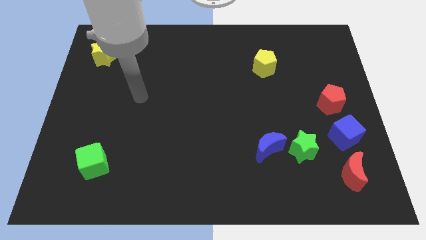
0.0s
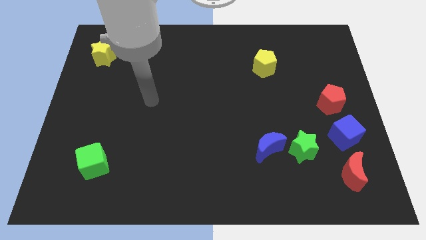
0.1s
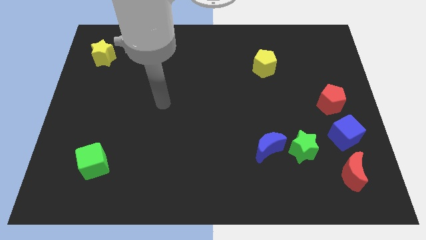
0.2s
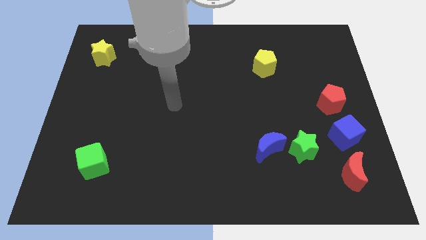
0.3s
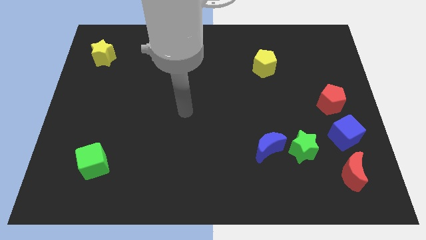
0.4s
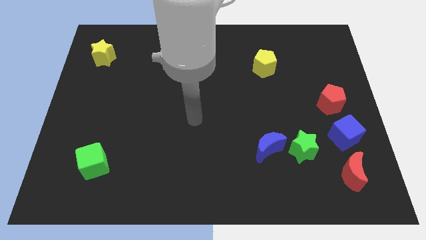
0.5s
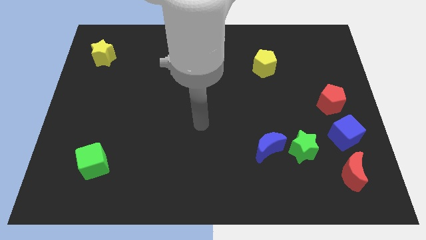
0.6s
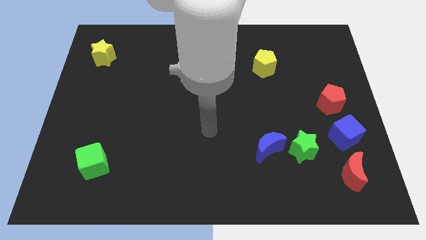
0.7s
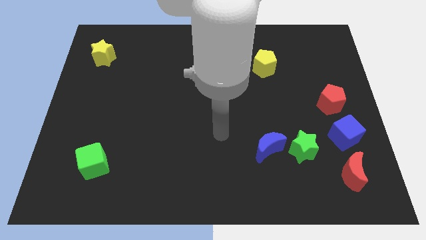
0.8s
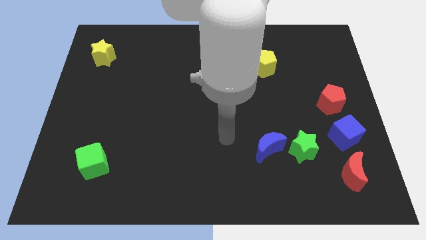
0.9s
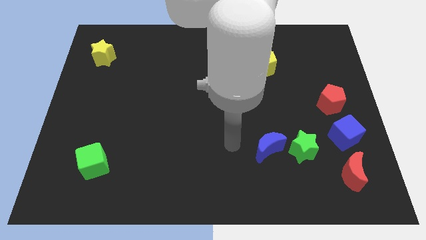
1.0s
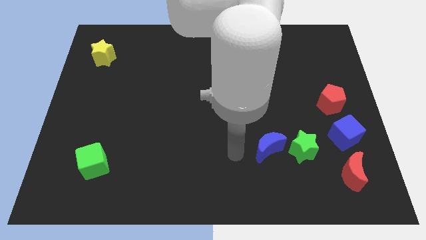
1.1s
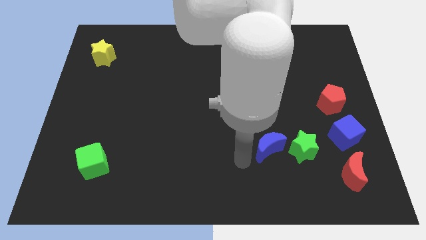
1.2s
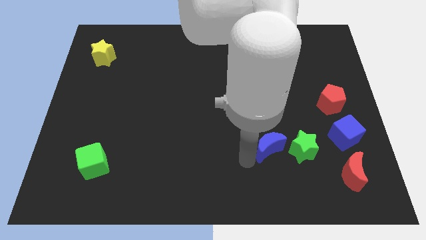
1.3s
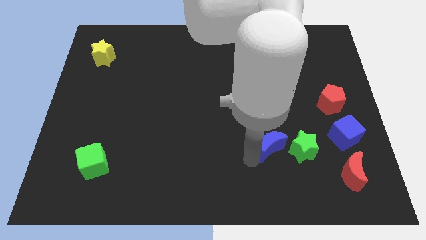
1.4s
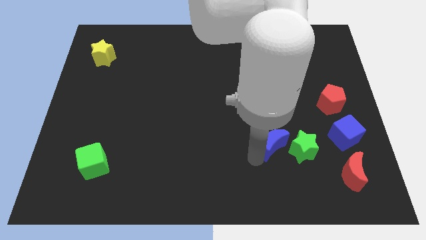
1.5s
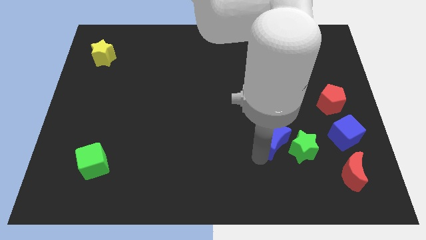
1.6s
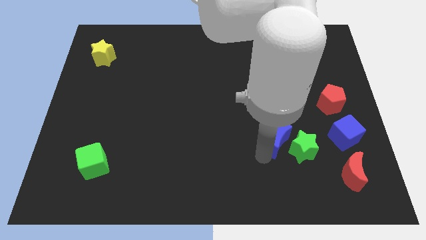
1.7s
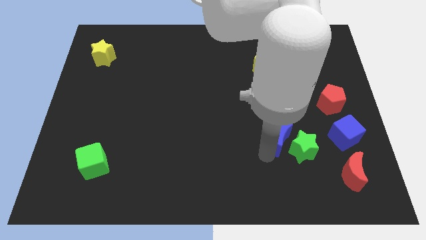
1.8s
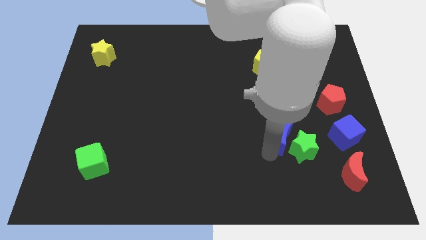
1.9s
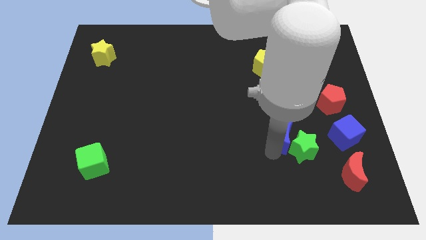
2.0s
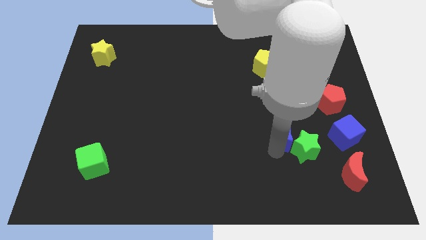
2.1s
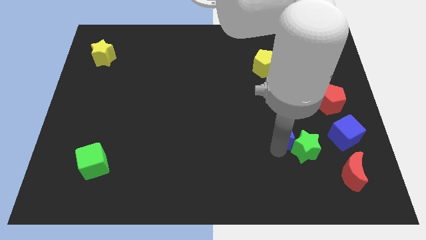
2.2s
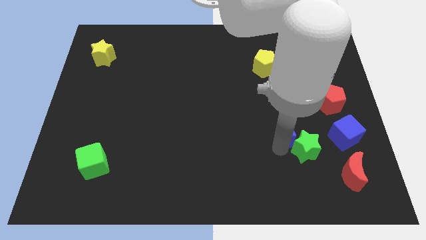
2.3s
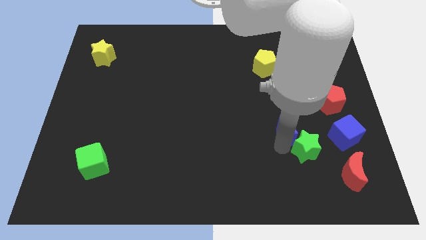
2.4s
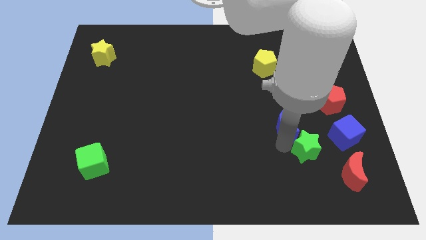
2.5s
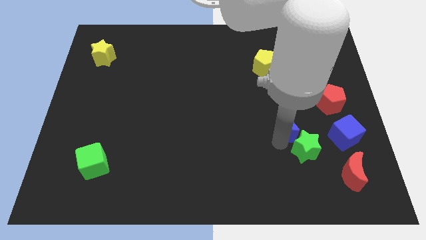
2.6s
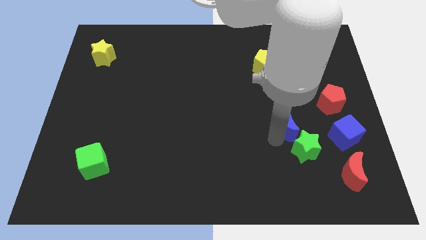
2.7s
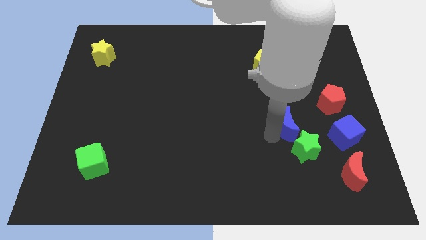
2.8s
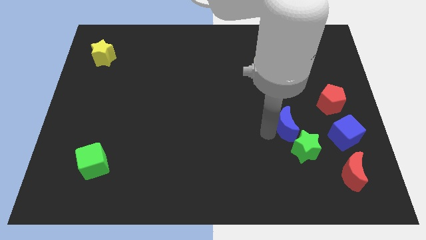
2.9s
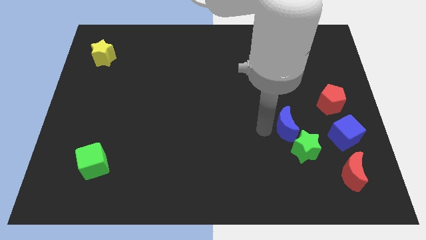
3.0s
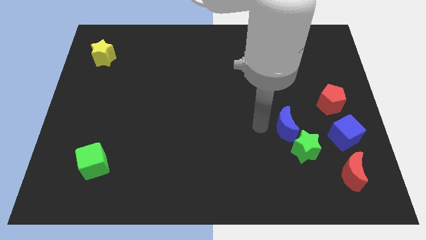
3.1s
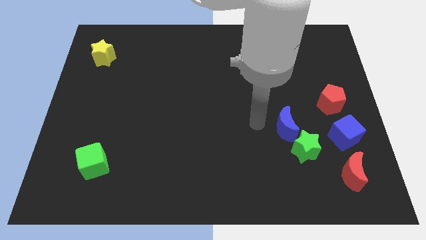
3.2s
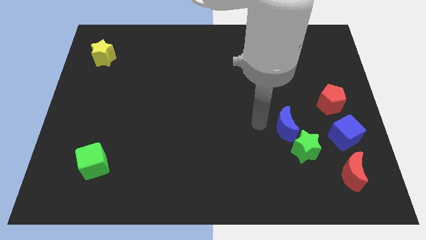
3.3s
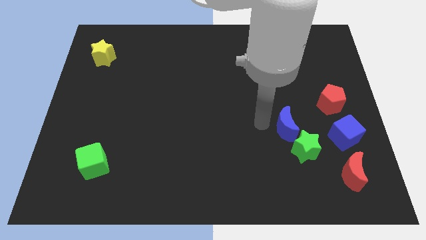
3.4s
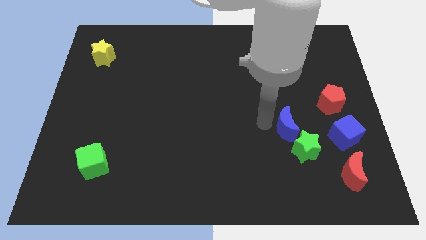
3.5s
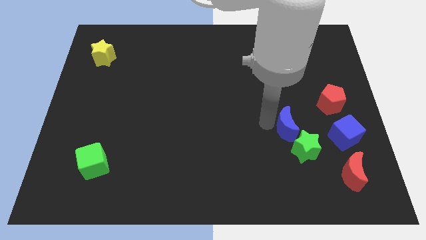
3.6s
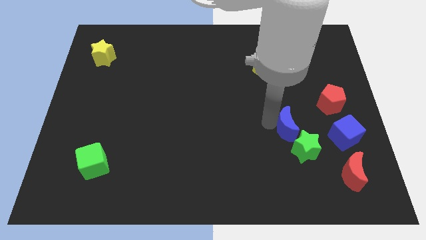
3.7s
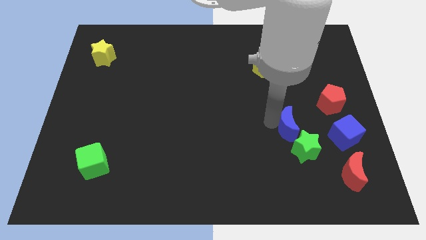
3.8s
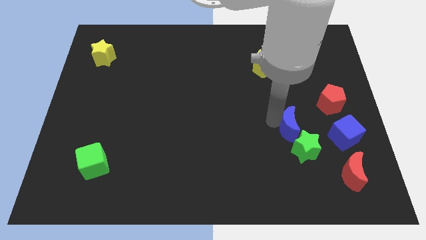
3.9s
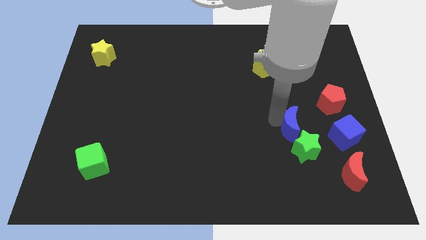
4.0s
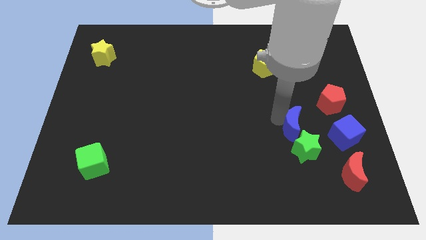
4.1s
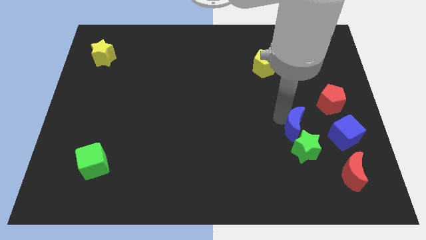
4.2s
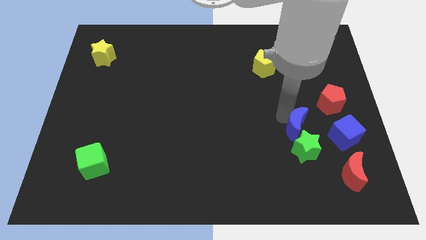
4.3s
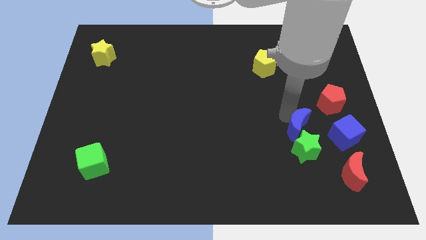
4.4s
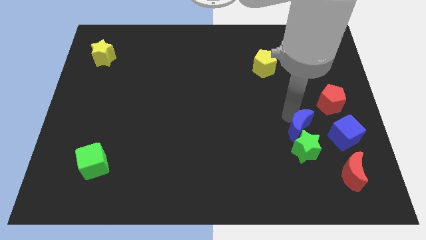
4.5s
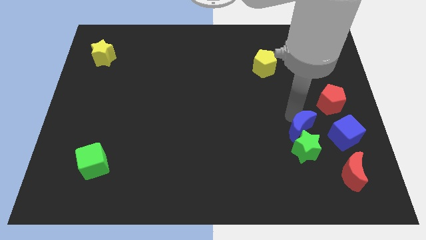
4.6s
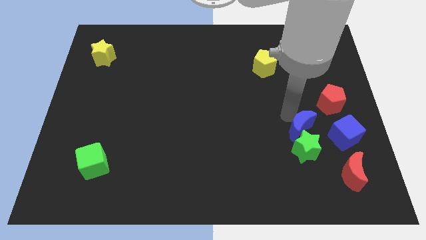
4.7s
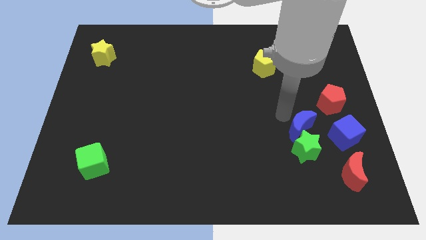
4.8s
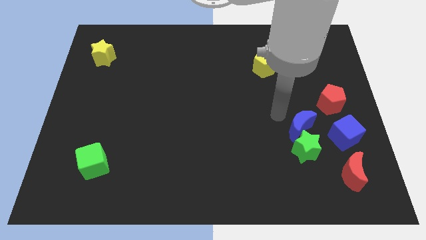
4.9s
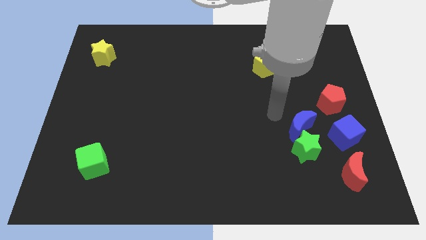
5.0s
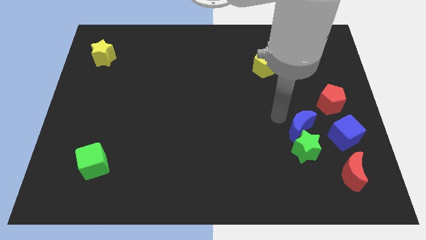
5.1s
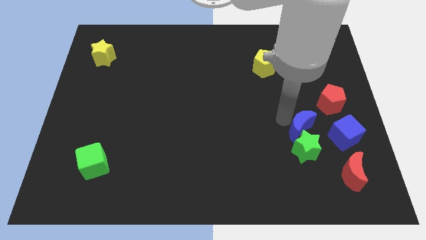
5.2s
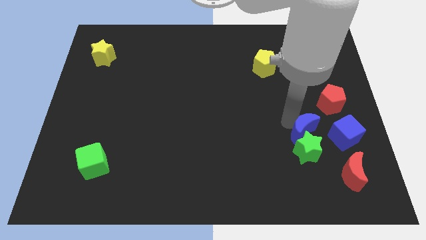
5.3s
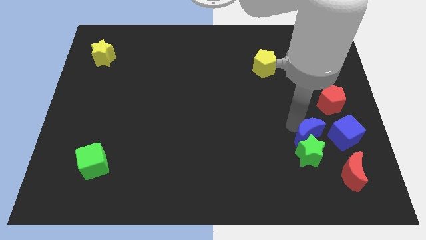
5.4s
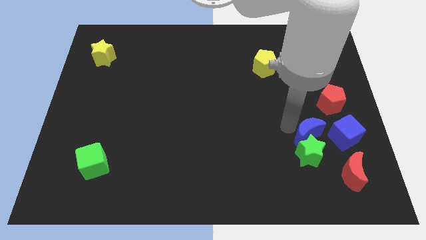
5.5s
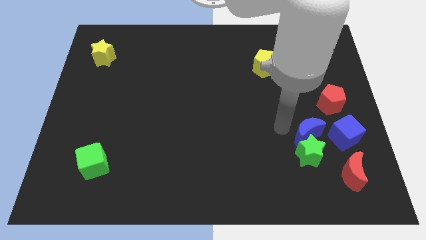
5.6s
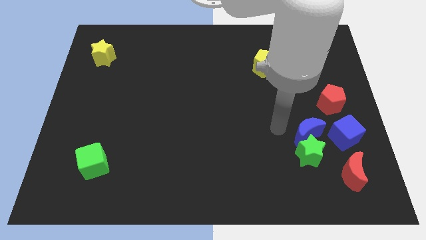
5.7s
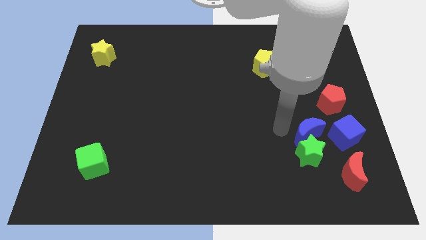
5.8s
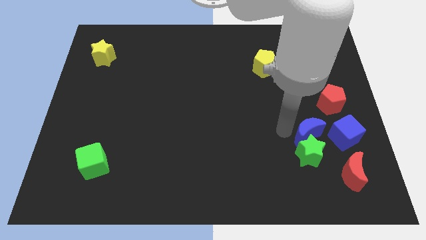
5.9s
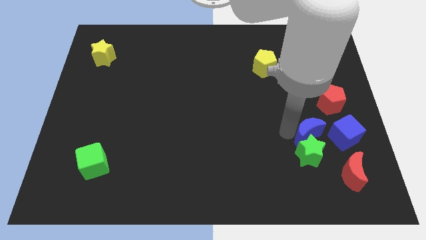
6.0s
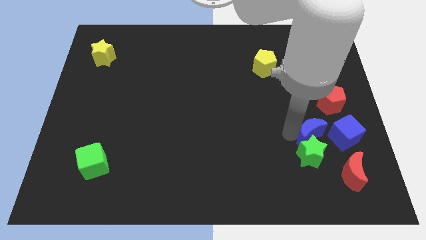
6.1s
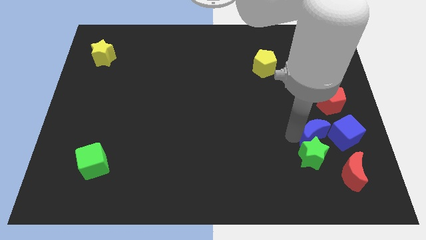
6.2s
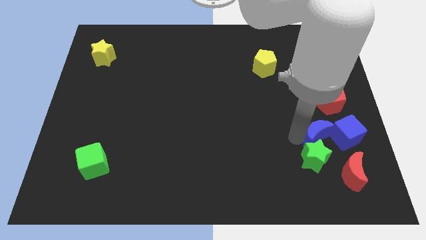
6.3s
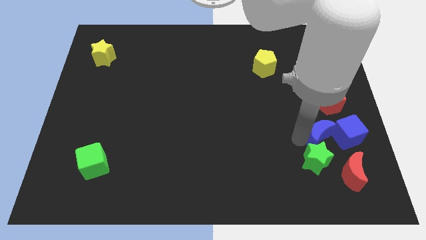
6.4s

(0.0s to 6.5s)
put the blue moon below the red pentagon

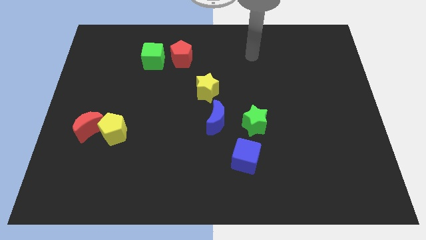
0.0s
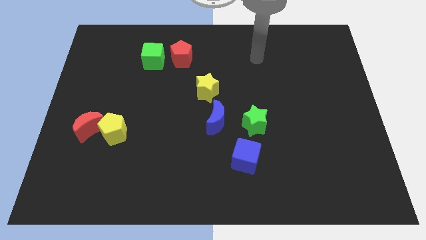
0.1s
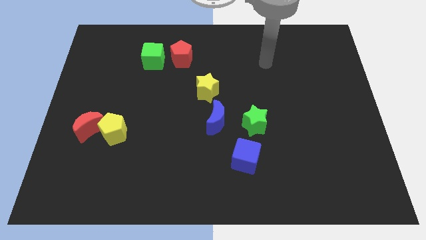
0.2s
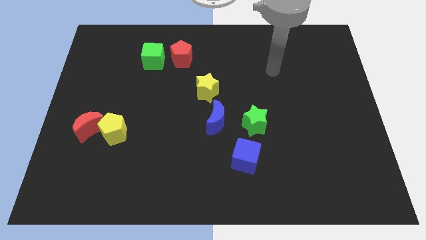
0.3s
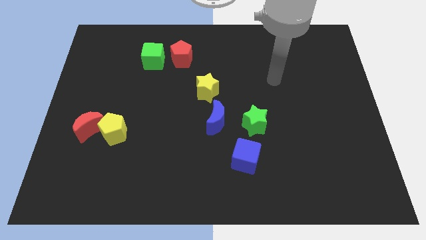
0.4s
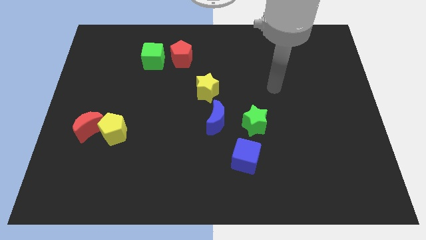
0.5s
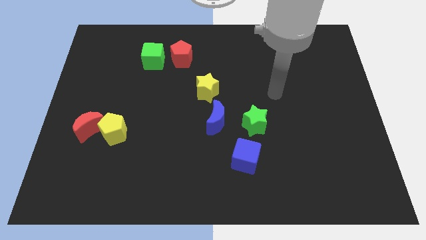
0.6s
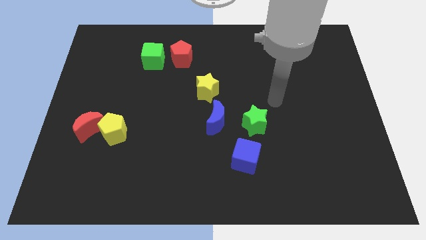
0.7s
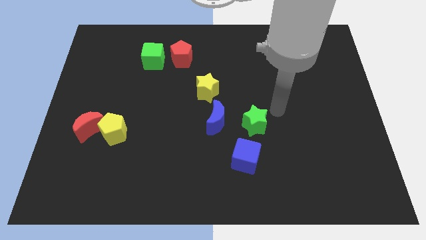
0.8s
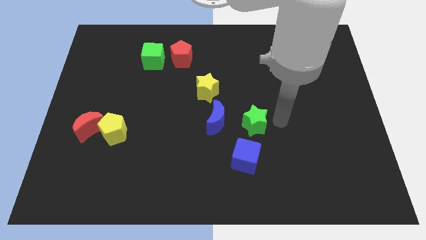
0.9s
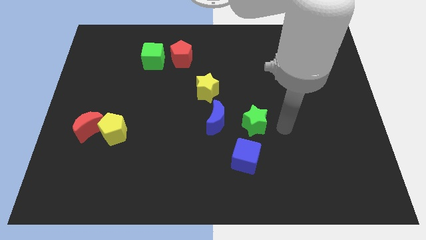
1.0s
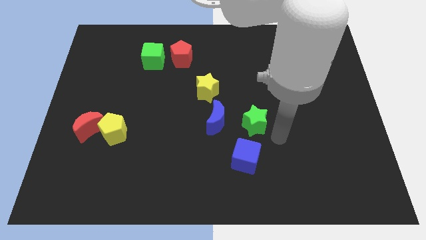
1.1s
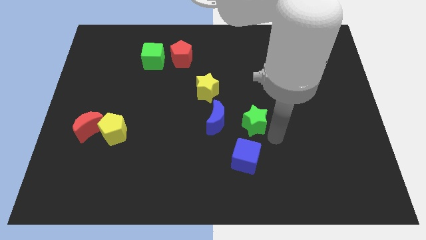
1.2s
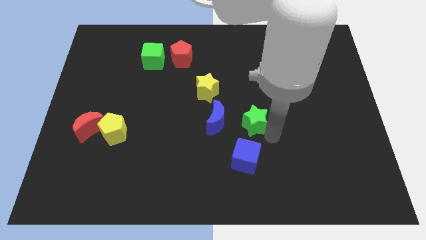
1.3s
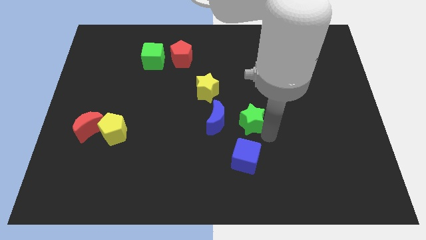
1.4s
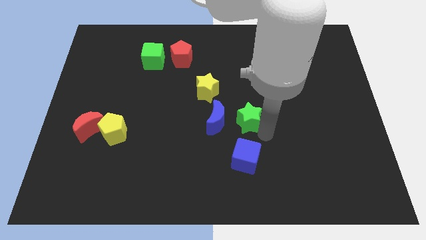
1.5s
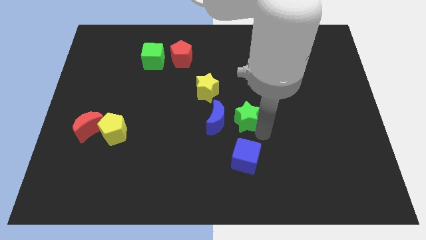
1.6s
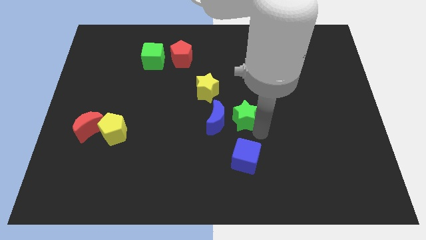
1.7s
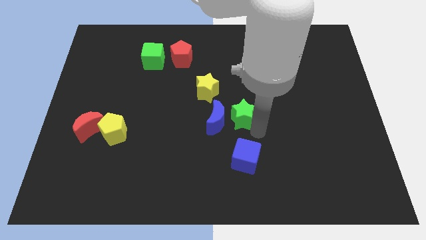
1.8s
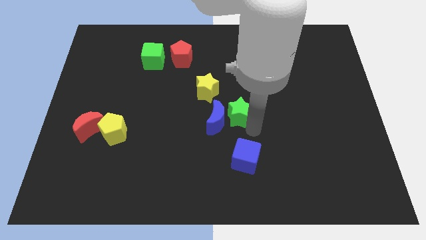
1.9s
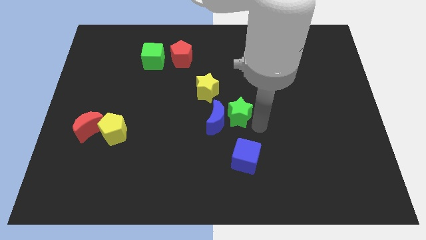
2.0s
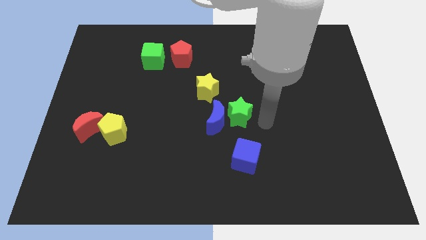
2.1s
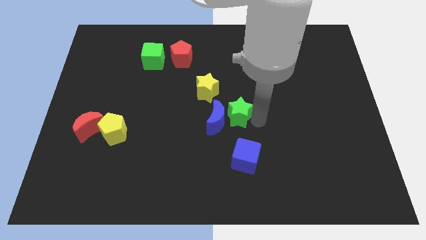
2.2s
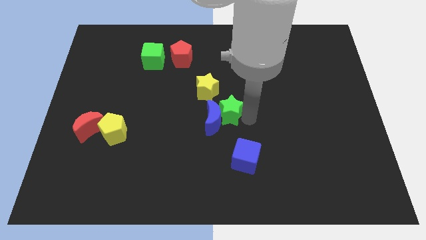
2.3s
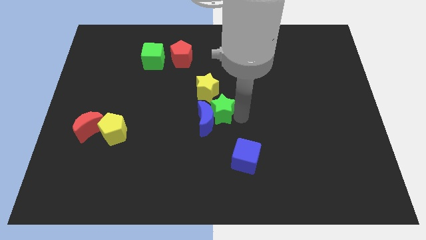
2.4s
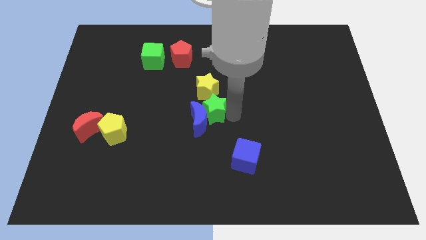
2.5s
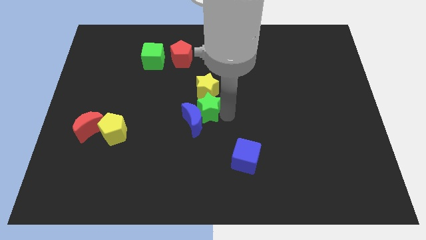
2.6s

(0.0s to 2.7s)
put the green star to the bottom left side of the yellow star
